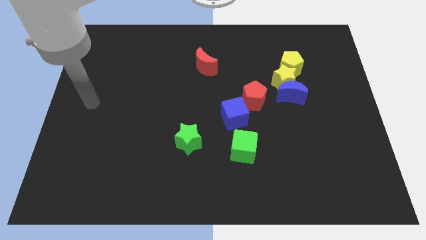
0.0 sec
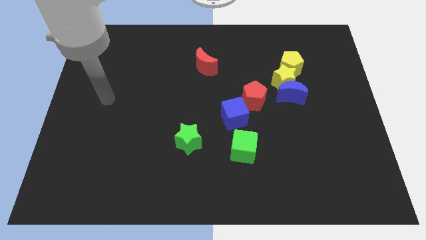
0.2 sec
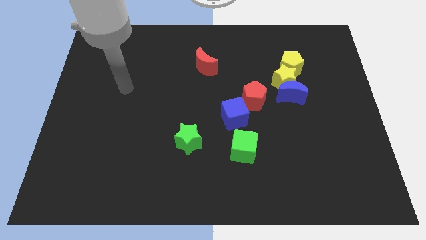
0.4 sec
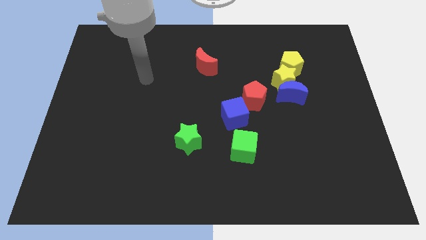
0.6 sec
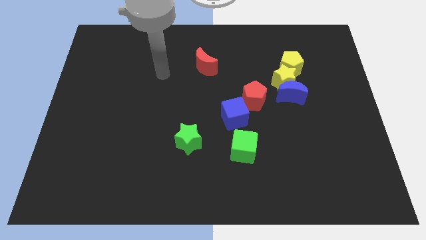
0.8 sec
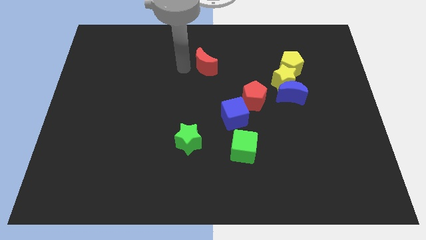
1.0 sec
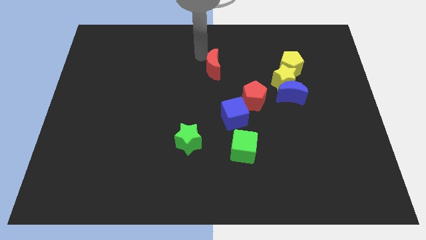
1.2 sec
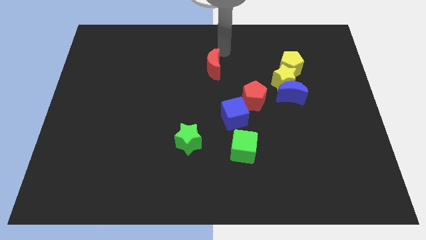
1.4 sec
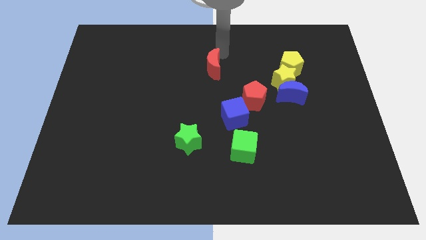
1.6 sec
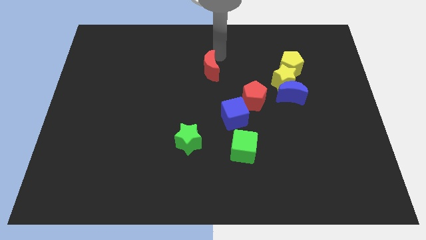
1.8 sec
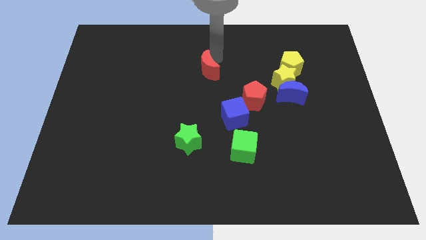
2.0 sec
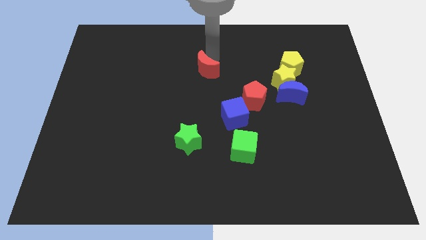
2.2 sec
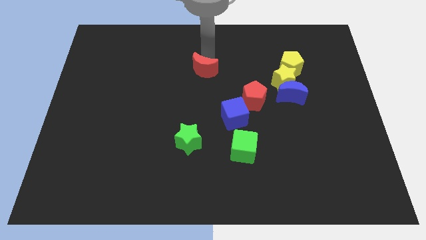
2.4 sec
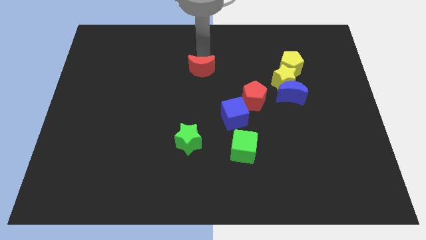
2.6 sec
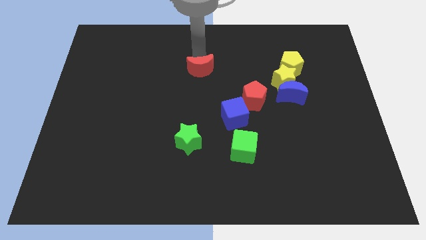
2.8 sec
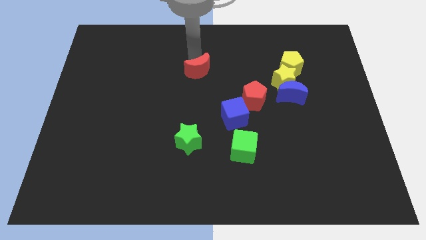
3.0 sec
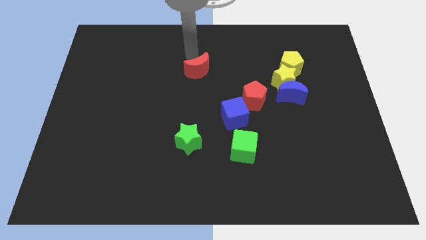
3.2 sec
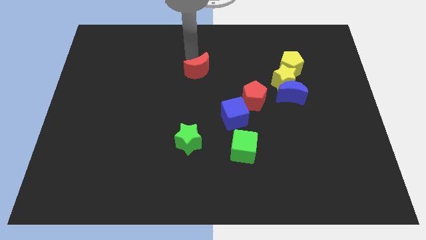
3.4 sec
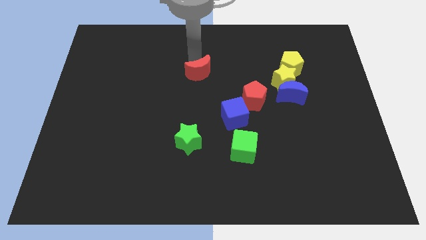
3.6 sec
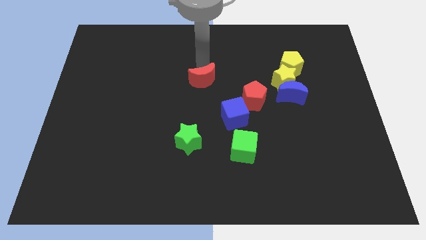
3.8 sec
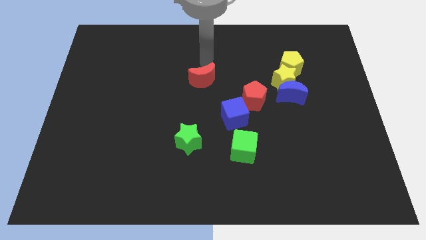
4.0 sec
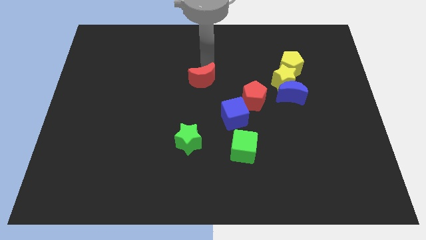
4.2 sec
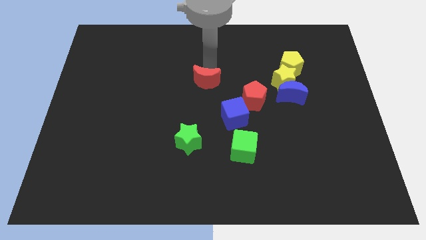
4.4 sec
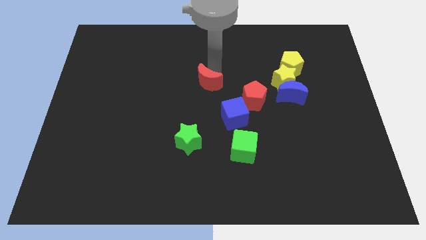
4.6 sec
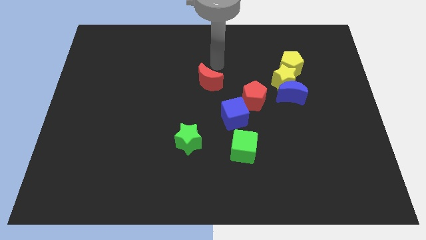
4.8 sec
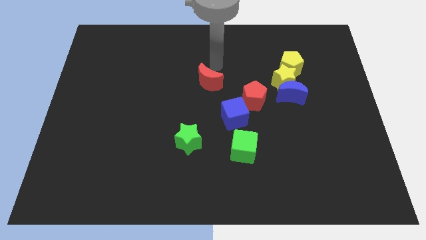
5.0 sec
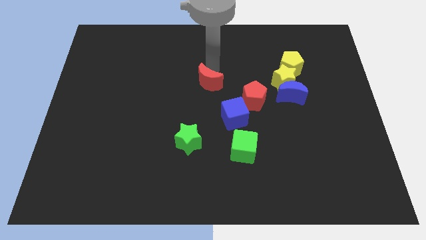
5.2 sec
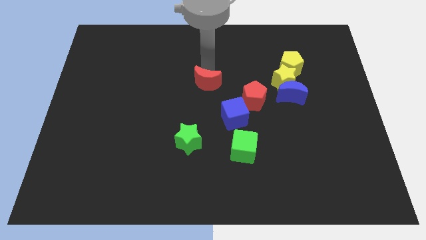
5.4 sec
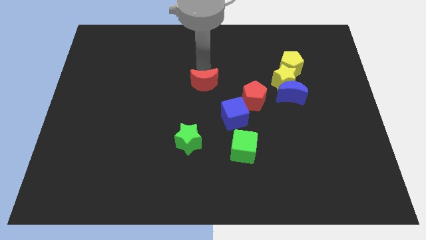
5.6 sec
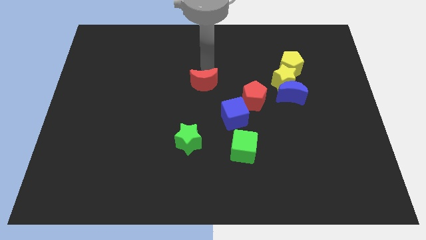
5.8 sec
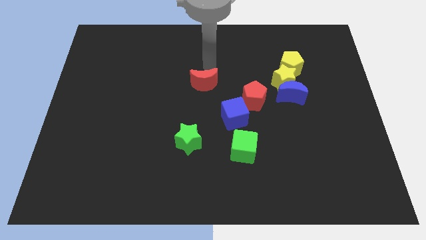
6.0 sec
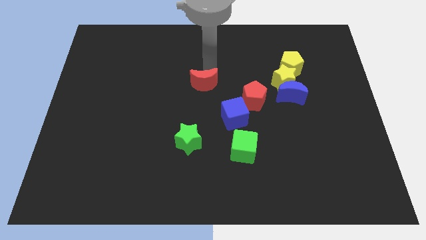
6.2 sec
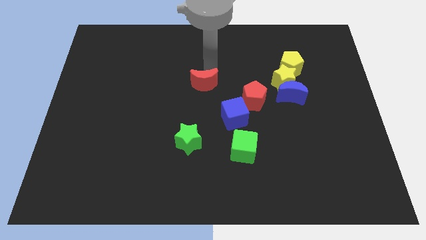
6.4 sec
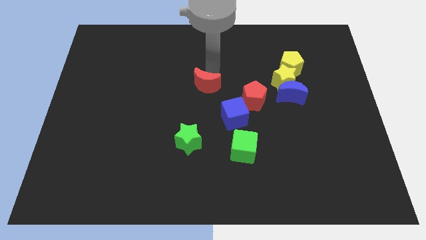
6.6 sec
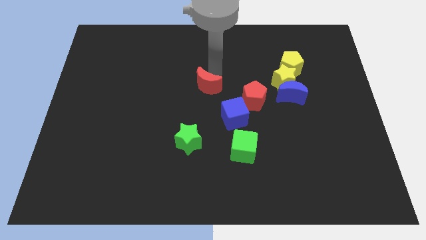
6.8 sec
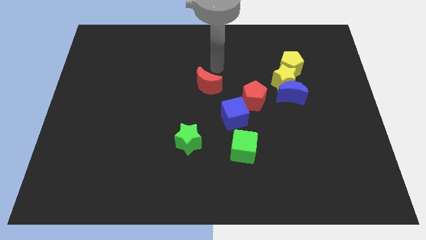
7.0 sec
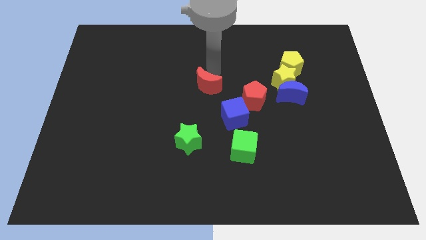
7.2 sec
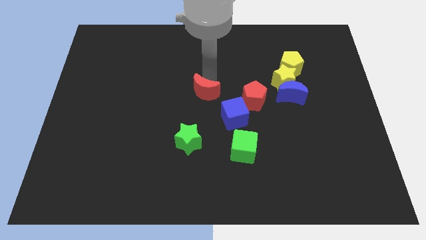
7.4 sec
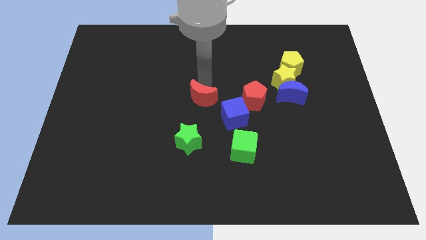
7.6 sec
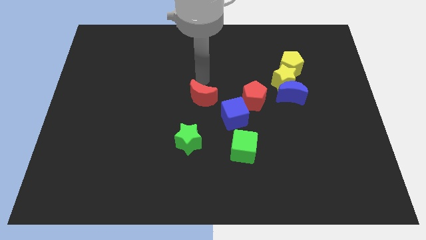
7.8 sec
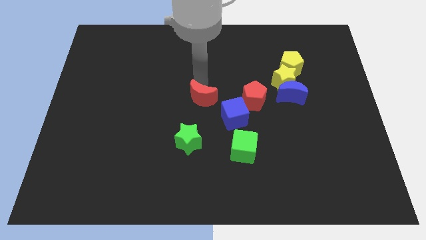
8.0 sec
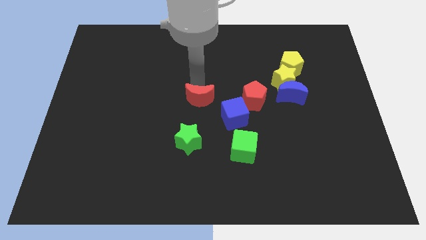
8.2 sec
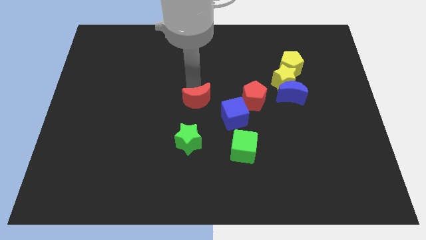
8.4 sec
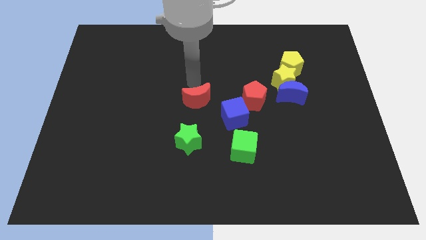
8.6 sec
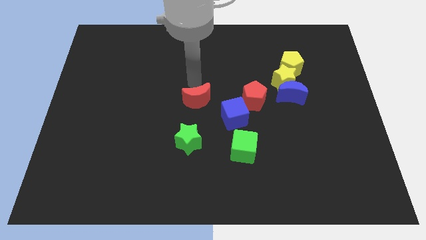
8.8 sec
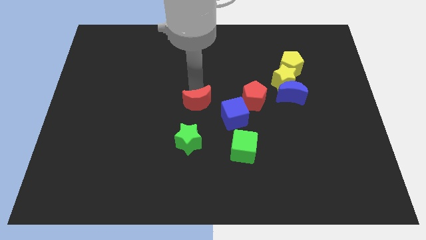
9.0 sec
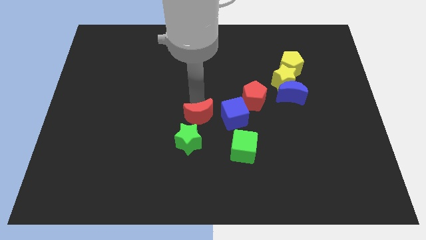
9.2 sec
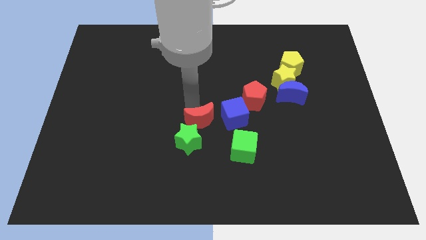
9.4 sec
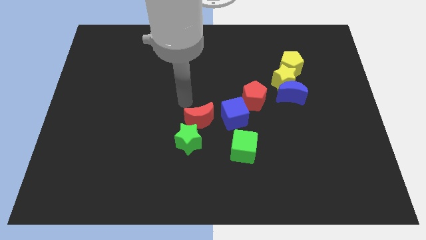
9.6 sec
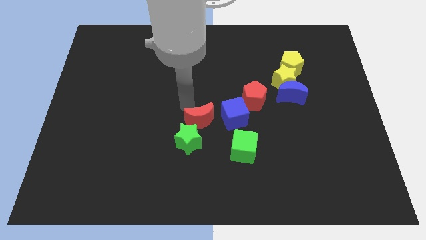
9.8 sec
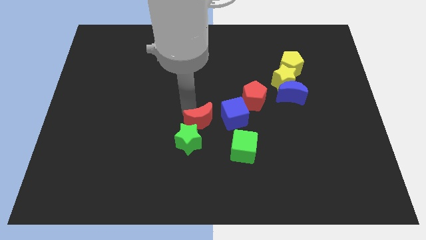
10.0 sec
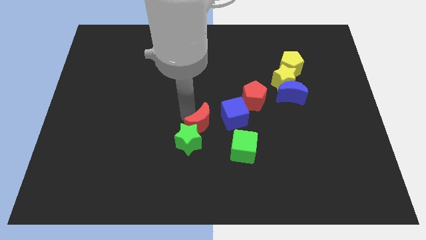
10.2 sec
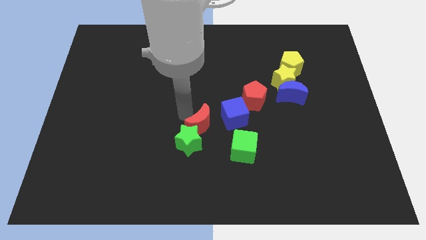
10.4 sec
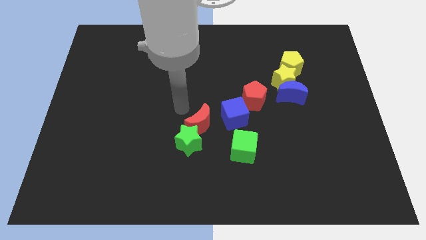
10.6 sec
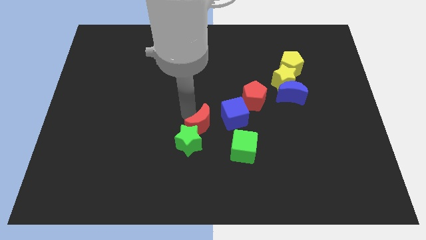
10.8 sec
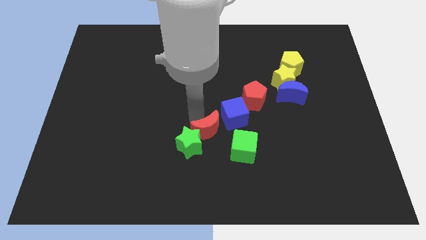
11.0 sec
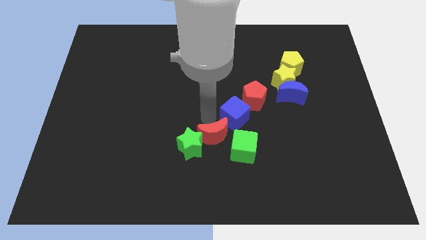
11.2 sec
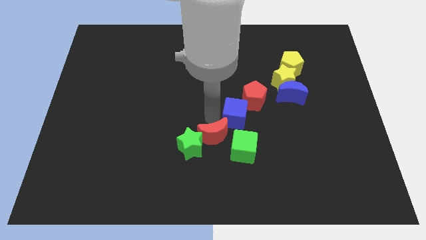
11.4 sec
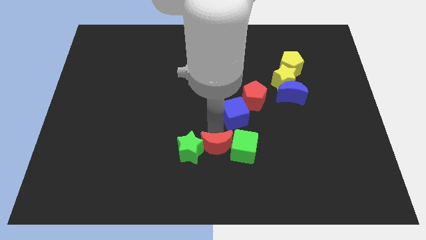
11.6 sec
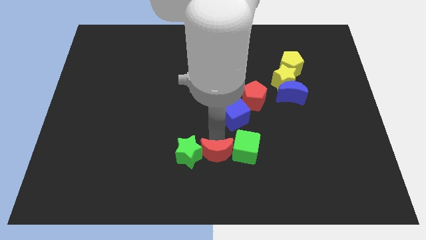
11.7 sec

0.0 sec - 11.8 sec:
move the red moon to the bottom side

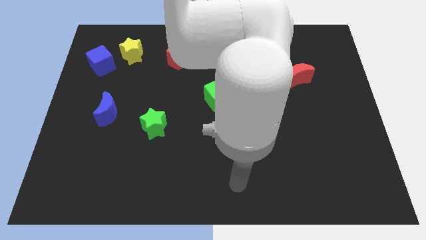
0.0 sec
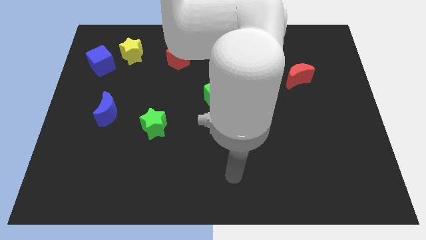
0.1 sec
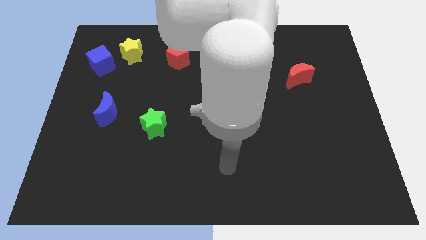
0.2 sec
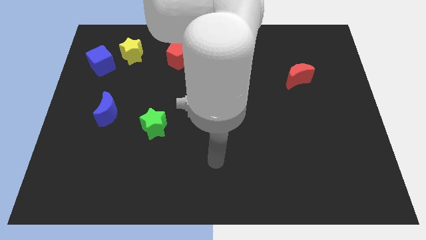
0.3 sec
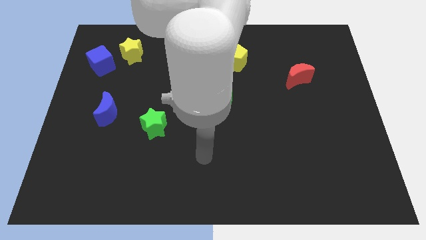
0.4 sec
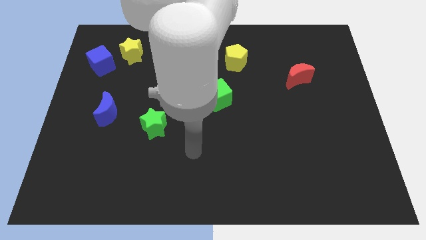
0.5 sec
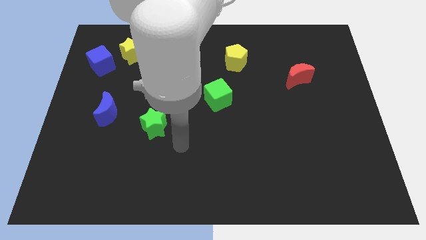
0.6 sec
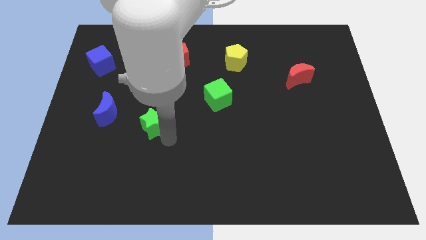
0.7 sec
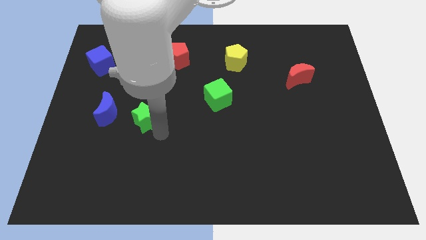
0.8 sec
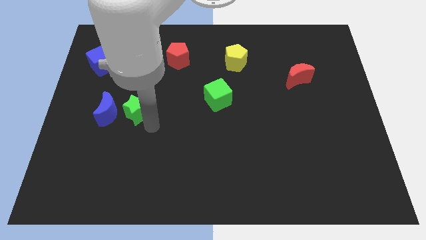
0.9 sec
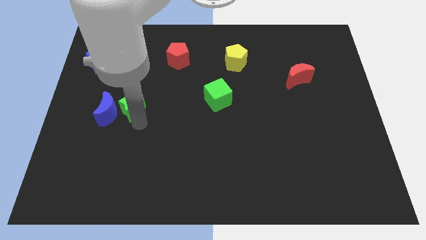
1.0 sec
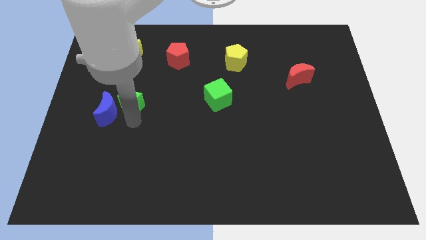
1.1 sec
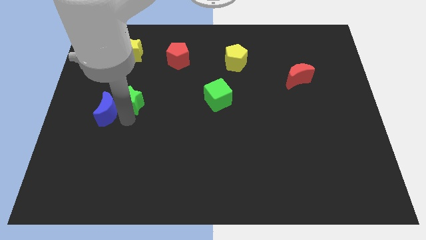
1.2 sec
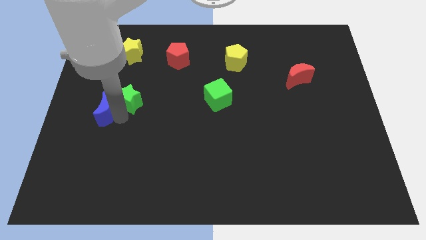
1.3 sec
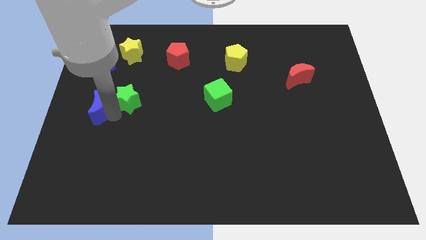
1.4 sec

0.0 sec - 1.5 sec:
slide the blue moon to the center left
